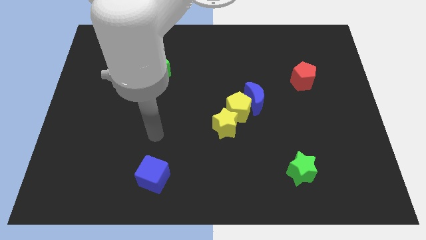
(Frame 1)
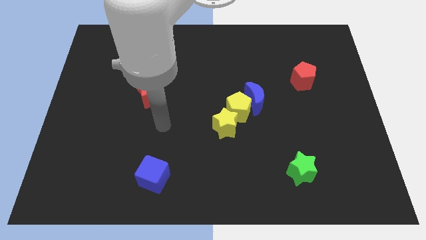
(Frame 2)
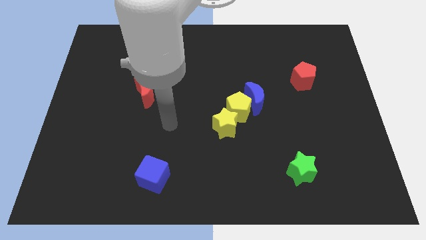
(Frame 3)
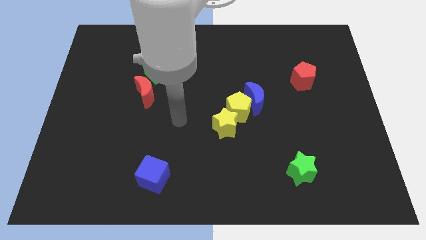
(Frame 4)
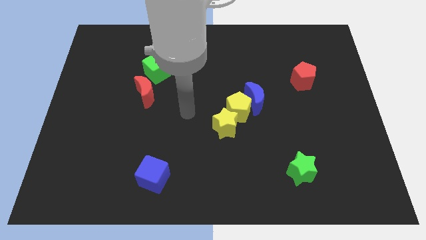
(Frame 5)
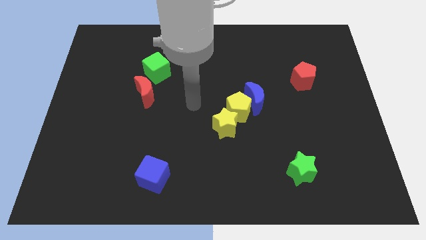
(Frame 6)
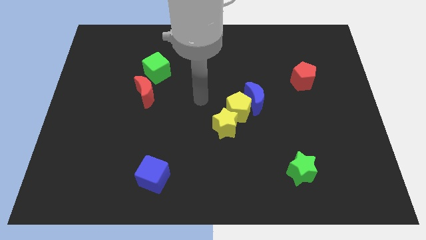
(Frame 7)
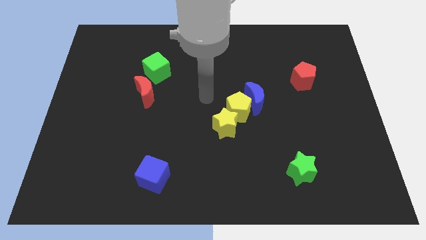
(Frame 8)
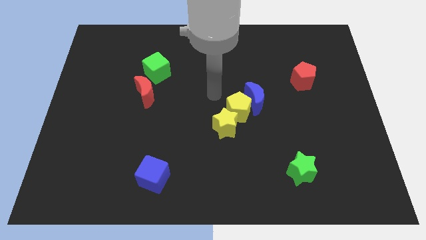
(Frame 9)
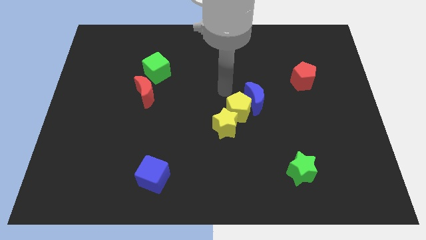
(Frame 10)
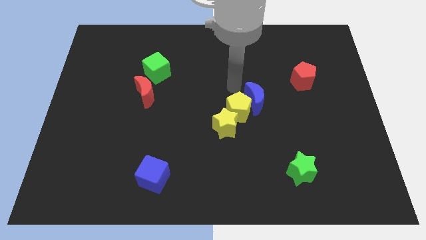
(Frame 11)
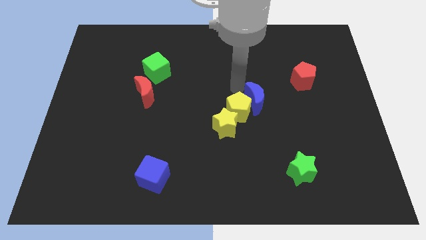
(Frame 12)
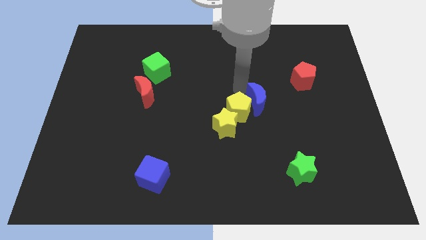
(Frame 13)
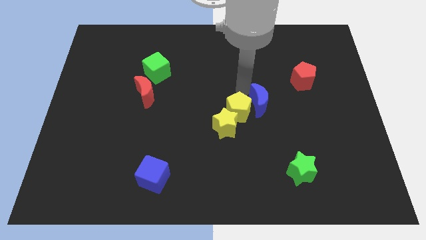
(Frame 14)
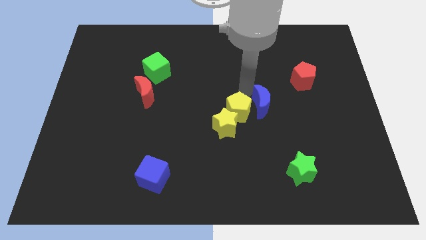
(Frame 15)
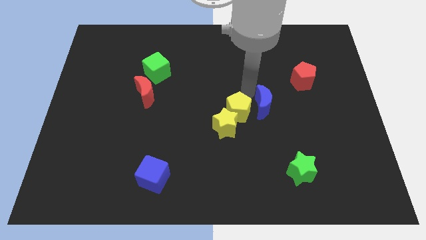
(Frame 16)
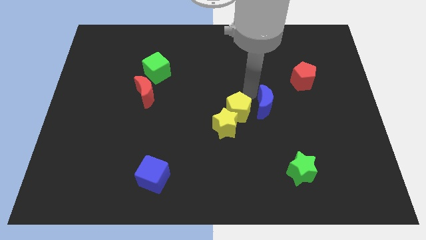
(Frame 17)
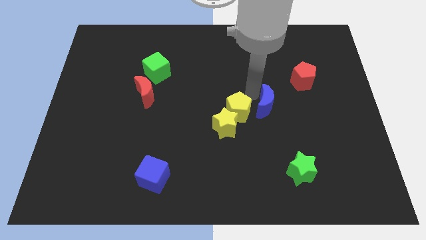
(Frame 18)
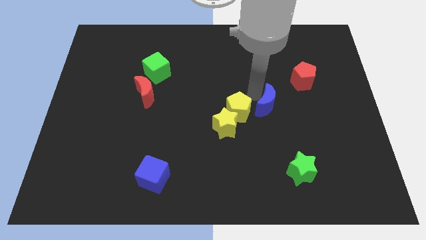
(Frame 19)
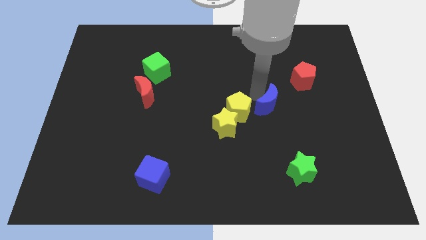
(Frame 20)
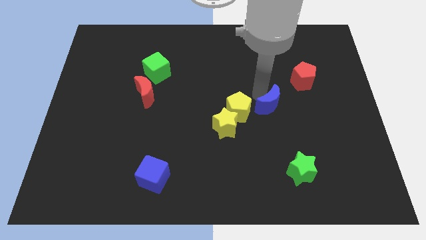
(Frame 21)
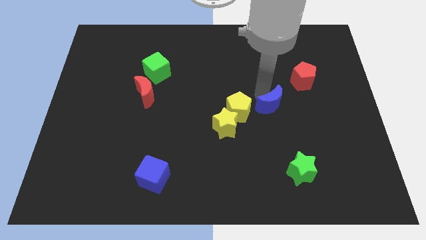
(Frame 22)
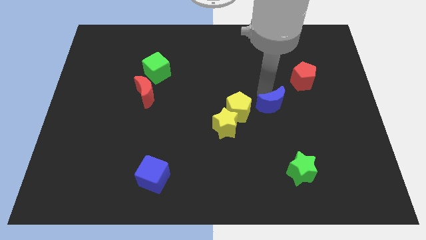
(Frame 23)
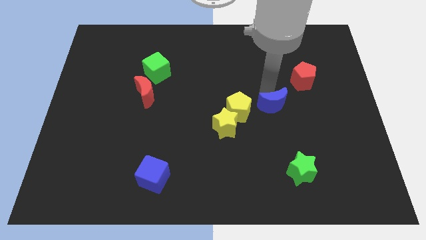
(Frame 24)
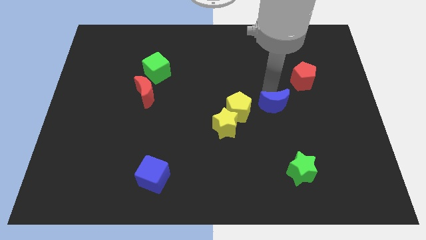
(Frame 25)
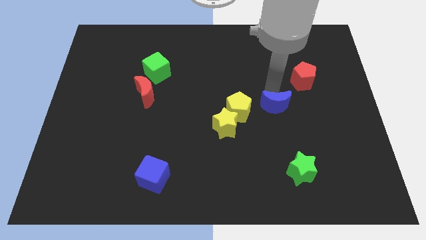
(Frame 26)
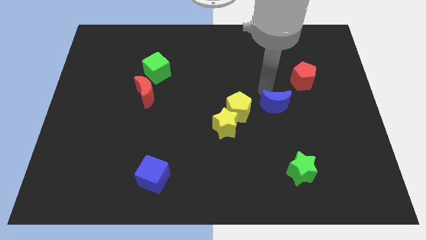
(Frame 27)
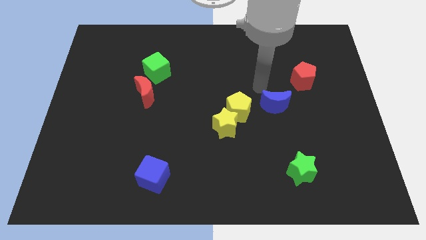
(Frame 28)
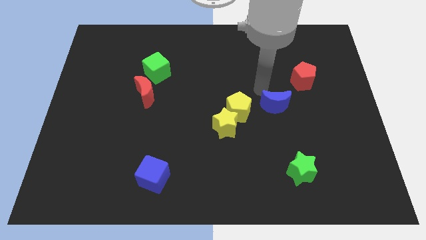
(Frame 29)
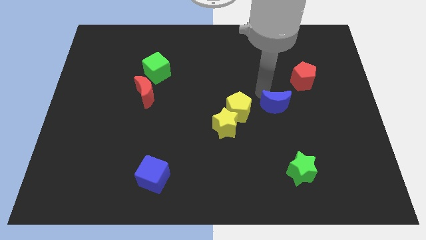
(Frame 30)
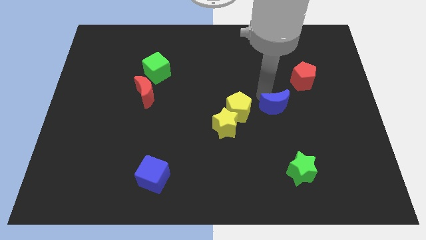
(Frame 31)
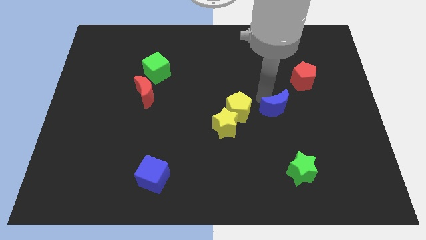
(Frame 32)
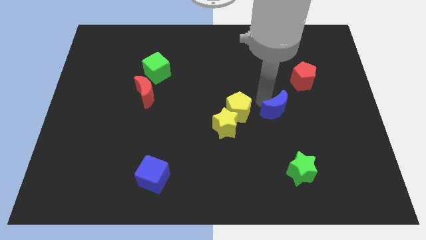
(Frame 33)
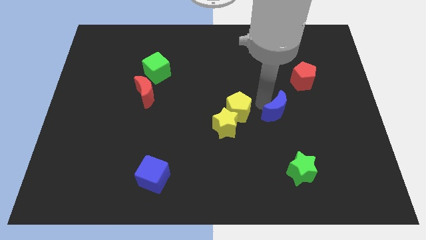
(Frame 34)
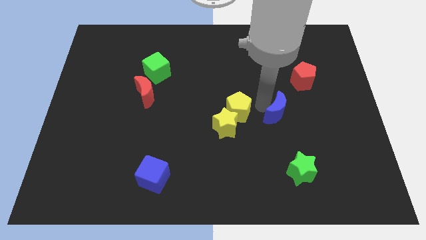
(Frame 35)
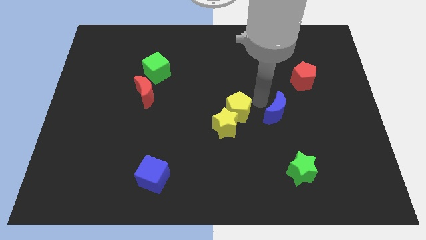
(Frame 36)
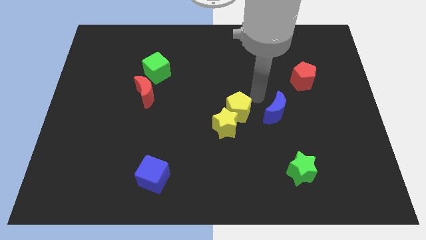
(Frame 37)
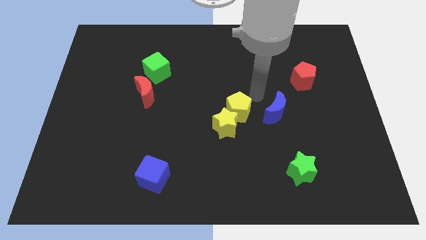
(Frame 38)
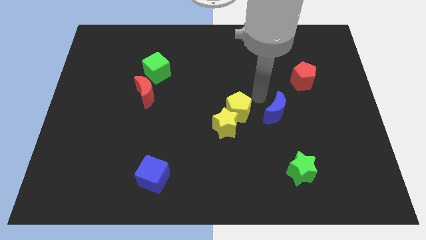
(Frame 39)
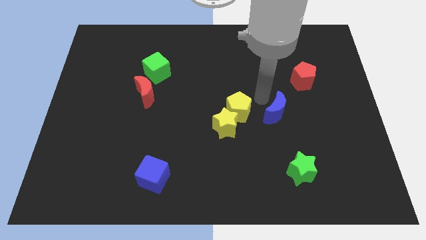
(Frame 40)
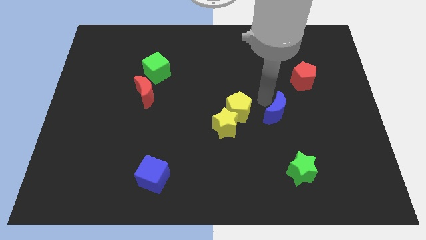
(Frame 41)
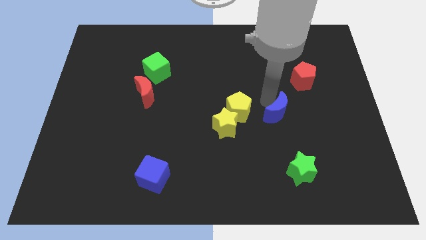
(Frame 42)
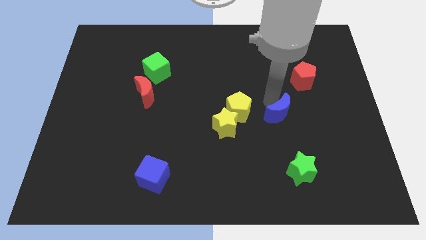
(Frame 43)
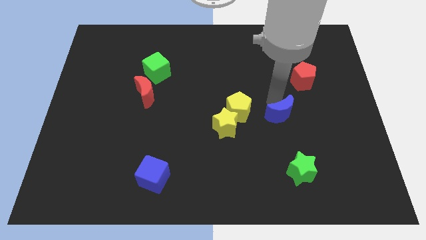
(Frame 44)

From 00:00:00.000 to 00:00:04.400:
slide the blue moon a little down and to the right diagonally

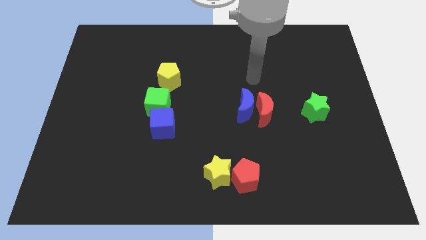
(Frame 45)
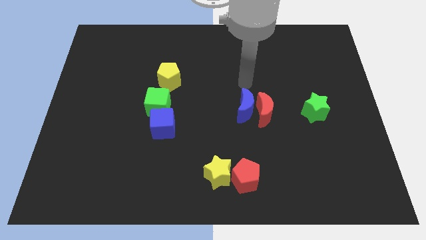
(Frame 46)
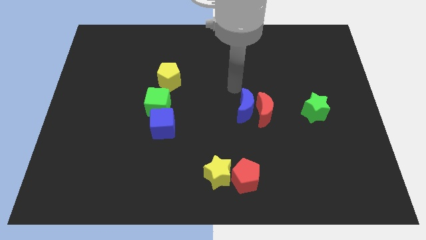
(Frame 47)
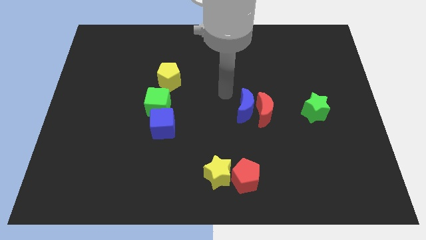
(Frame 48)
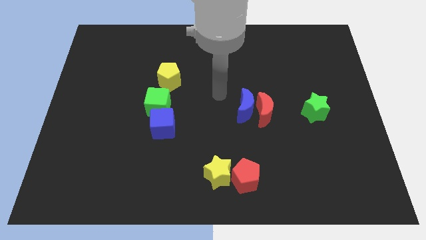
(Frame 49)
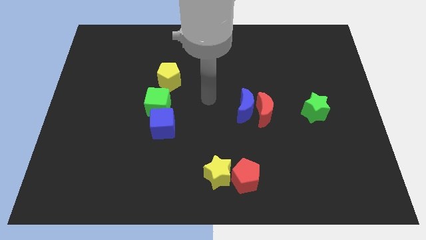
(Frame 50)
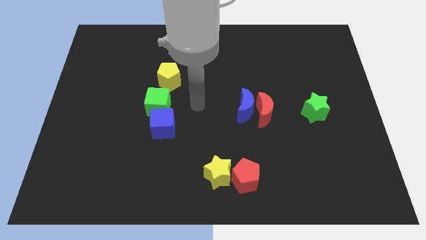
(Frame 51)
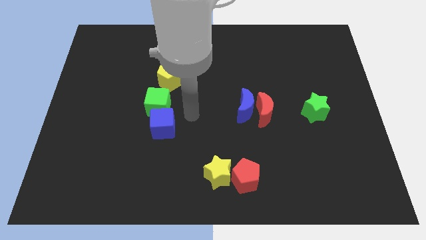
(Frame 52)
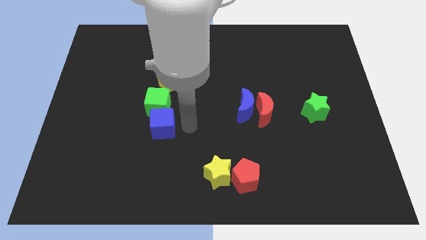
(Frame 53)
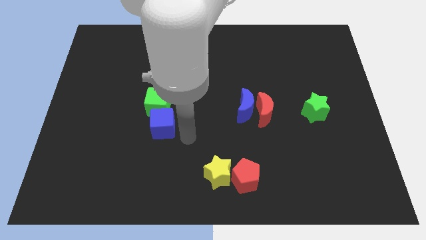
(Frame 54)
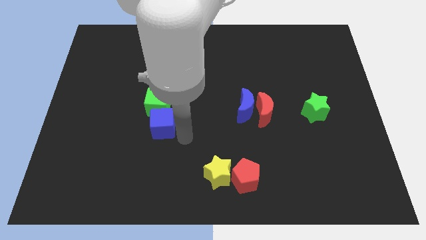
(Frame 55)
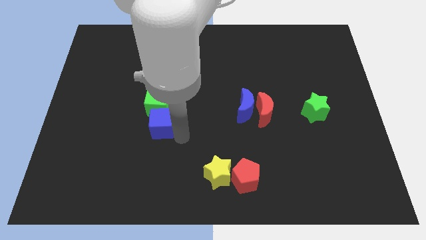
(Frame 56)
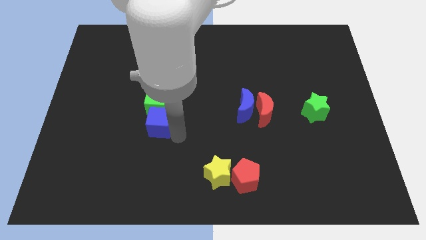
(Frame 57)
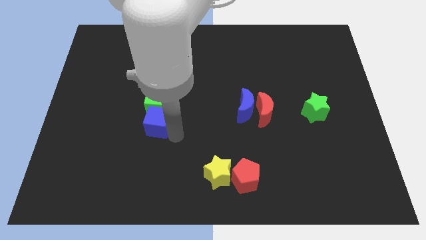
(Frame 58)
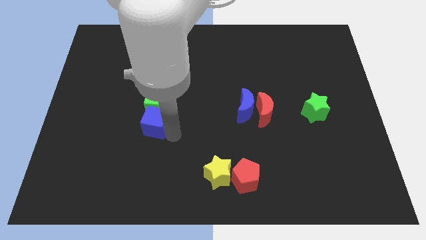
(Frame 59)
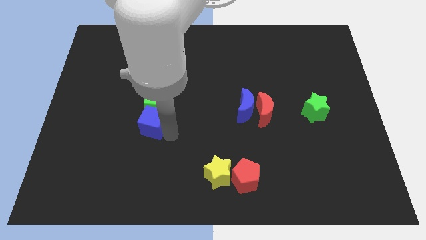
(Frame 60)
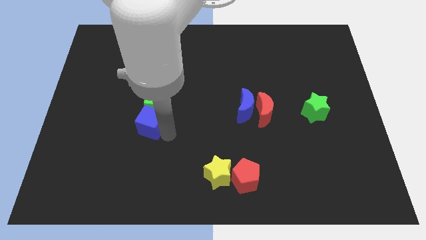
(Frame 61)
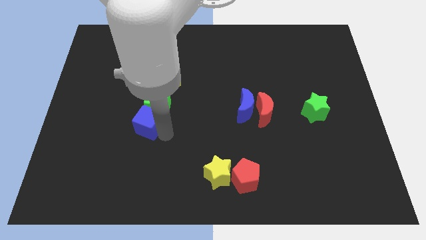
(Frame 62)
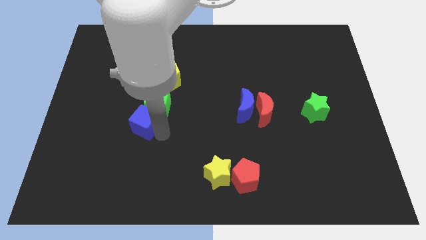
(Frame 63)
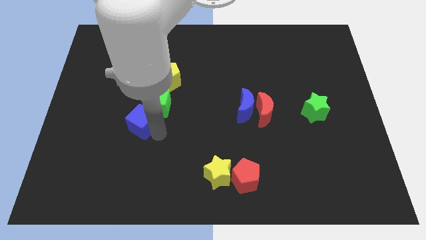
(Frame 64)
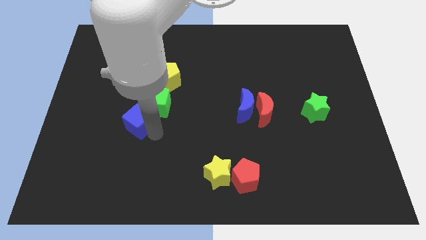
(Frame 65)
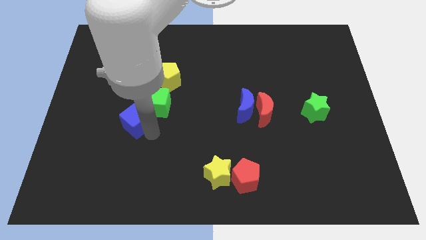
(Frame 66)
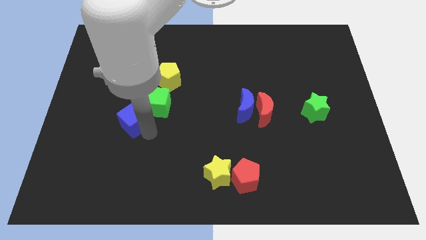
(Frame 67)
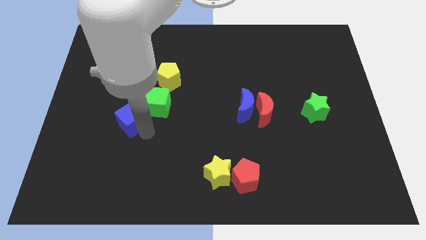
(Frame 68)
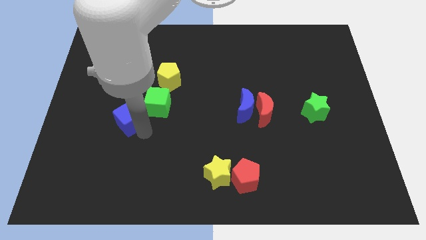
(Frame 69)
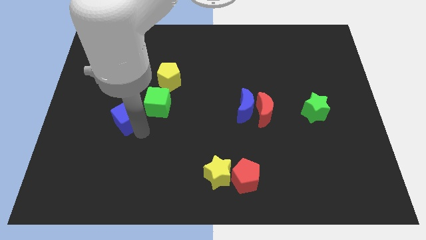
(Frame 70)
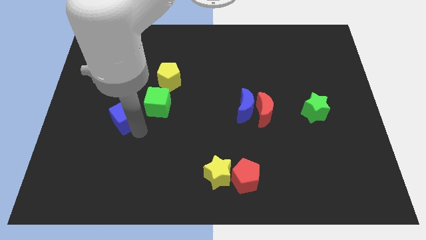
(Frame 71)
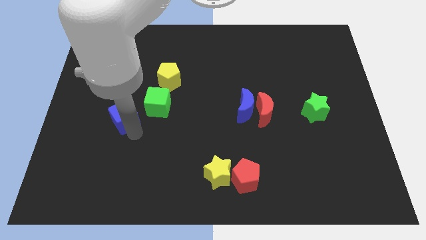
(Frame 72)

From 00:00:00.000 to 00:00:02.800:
move the blue cube diagonally upwards and left slightly

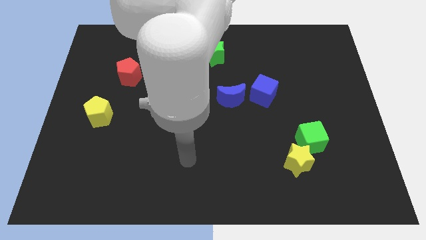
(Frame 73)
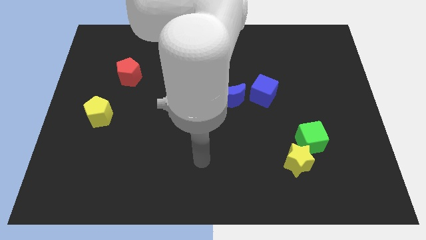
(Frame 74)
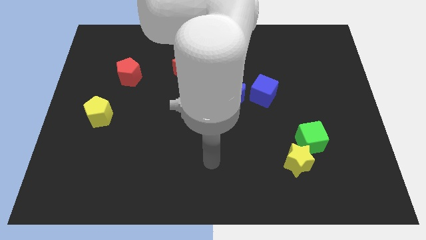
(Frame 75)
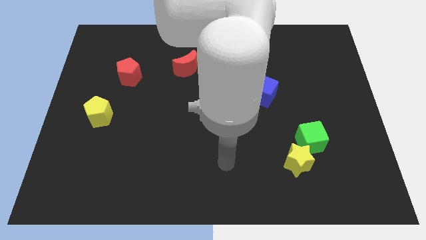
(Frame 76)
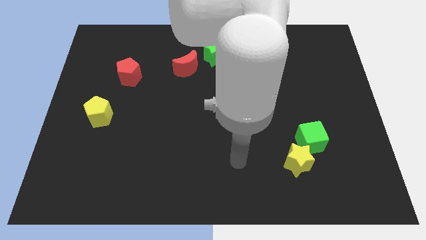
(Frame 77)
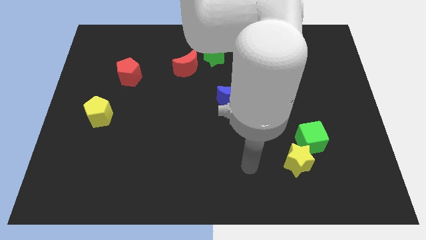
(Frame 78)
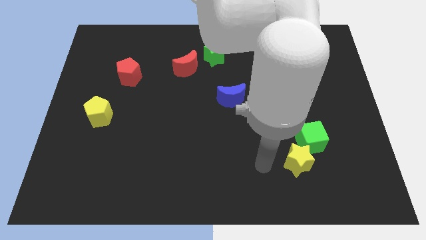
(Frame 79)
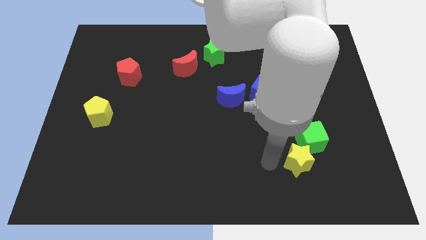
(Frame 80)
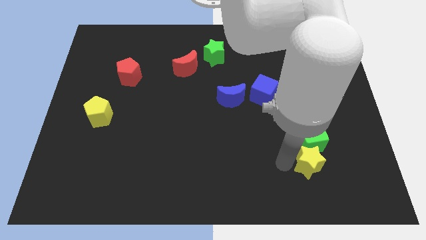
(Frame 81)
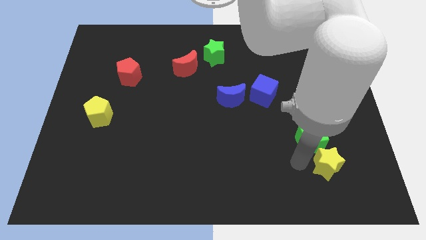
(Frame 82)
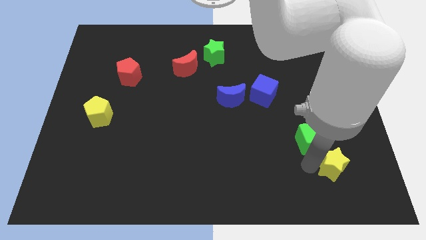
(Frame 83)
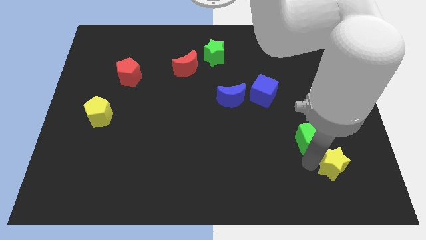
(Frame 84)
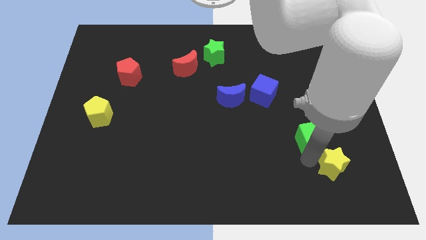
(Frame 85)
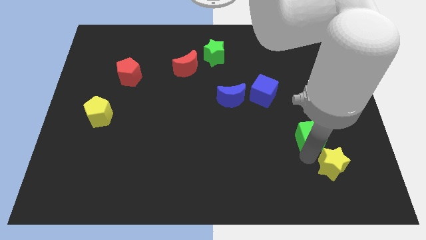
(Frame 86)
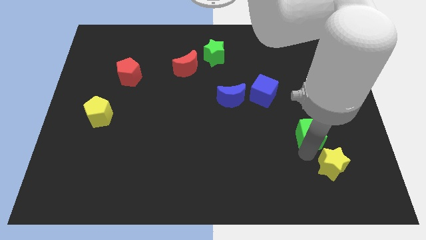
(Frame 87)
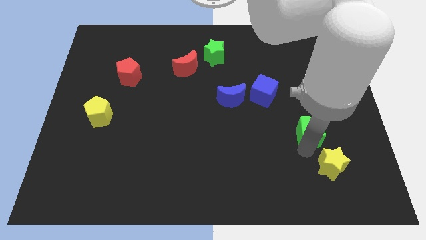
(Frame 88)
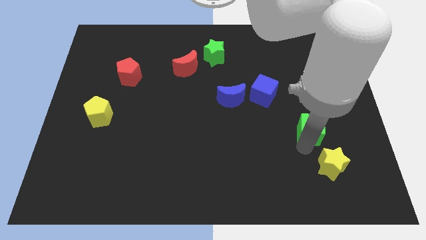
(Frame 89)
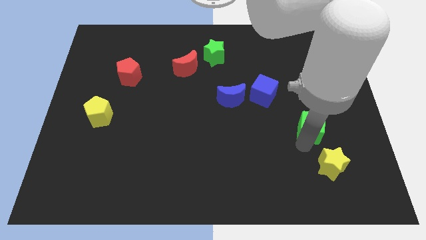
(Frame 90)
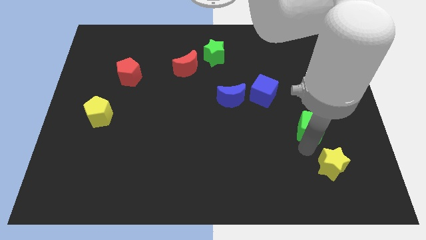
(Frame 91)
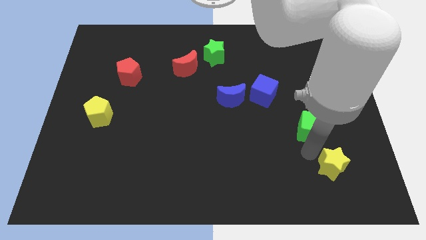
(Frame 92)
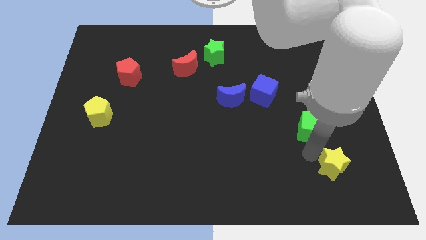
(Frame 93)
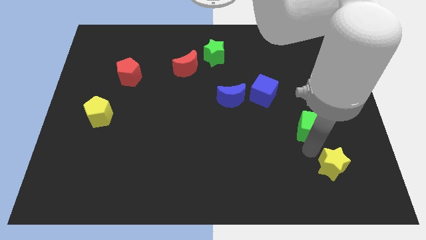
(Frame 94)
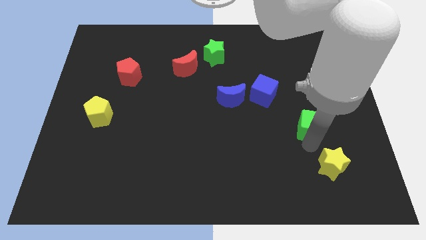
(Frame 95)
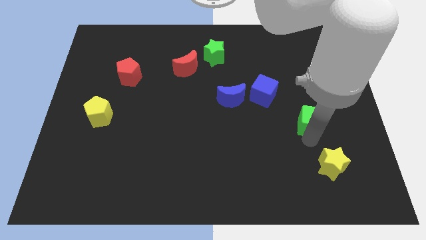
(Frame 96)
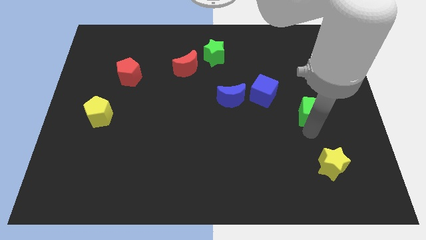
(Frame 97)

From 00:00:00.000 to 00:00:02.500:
slide the green cube upwards a little bit
